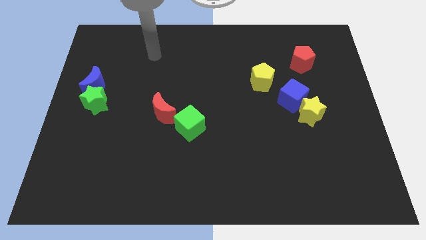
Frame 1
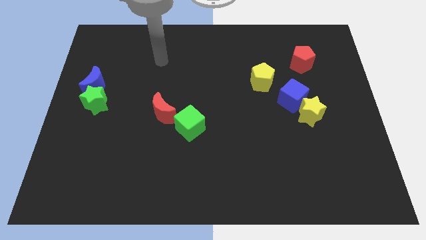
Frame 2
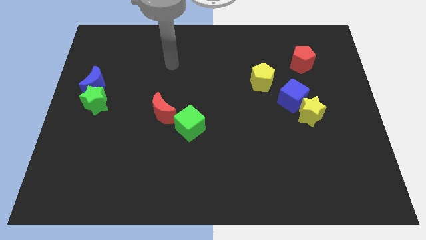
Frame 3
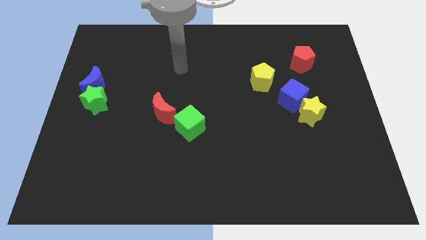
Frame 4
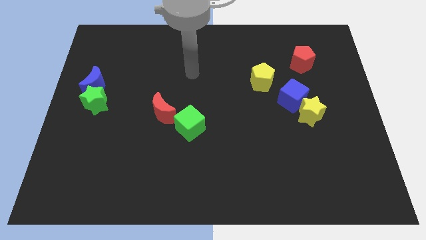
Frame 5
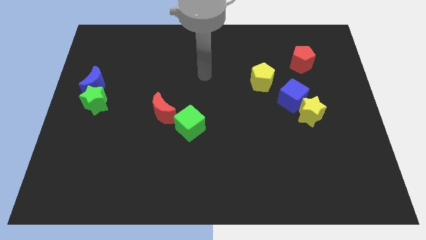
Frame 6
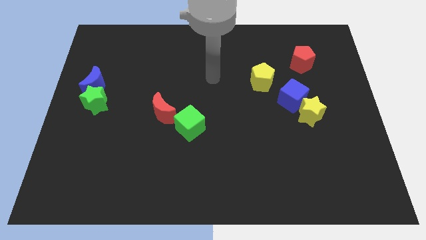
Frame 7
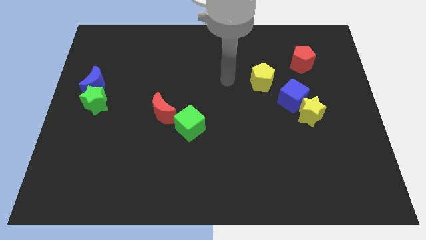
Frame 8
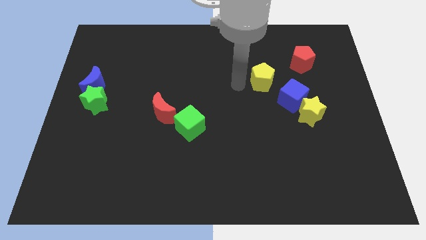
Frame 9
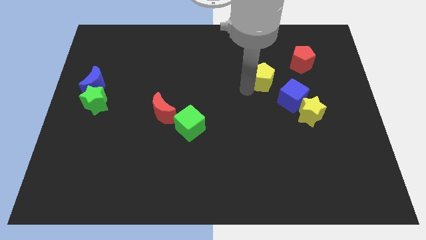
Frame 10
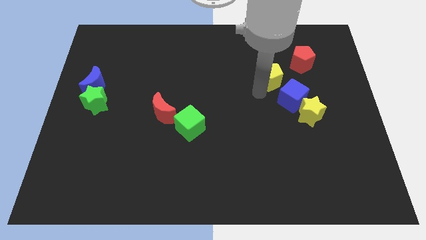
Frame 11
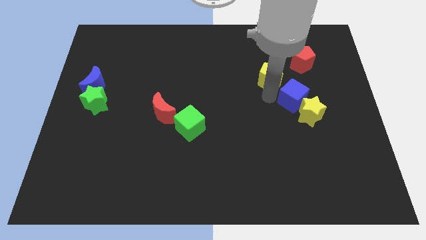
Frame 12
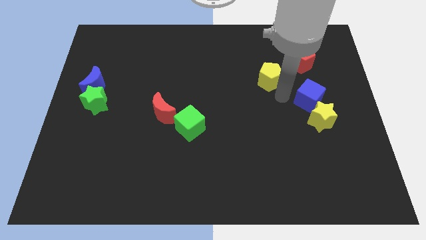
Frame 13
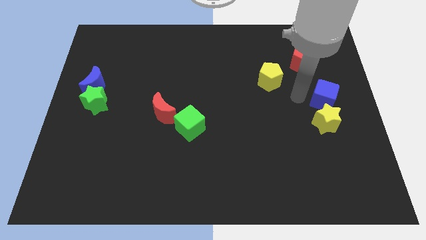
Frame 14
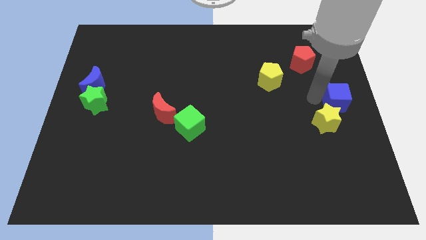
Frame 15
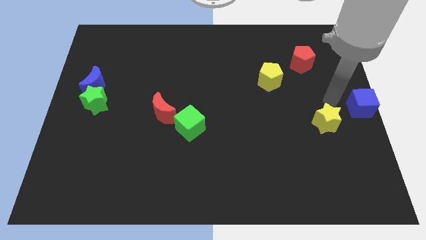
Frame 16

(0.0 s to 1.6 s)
separate the yellow star from the blue cube

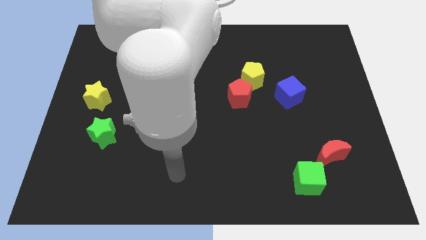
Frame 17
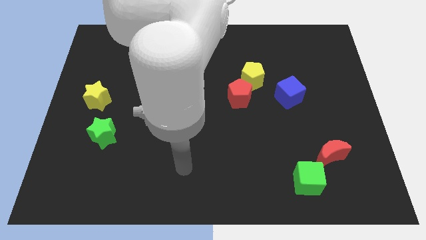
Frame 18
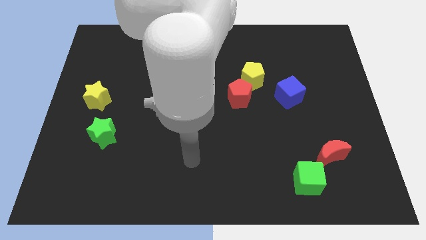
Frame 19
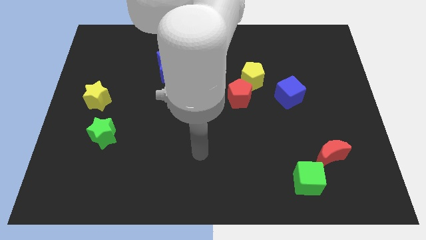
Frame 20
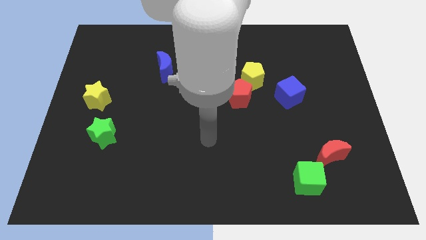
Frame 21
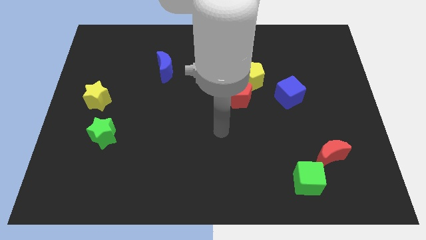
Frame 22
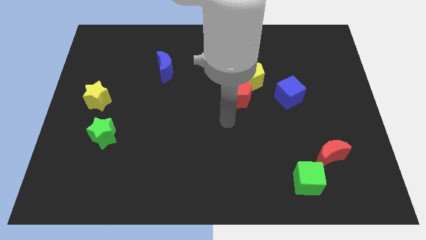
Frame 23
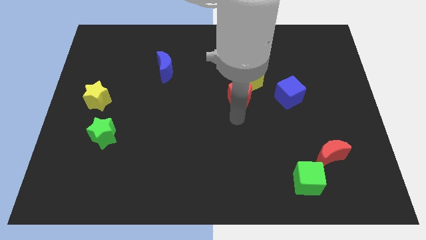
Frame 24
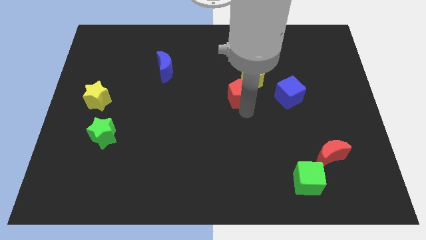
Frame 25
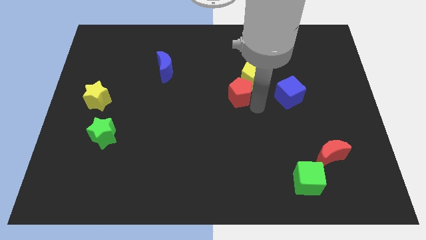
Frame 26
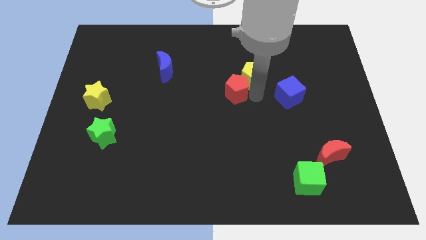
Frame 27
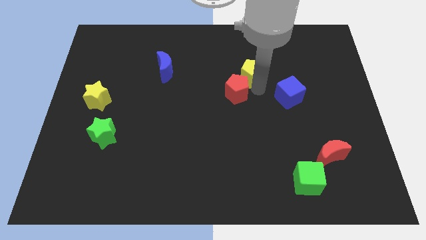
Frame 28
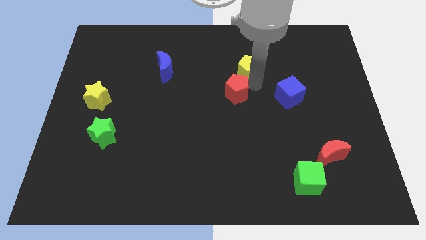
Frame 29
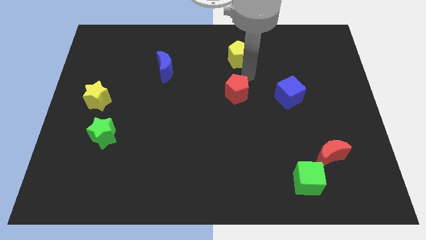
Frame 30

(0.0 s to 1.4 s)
separate the red pentagon from the yellow pentagon

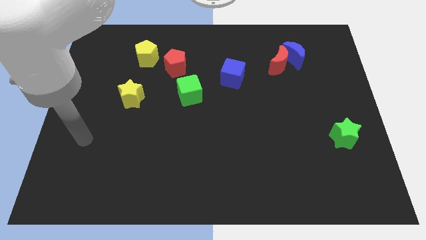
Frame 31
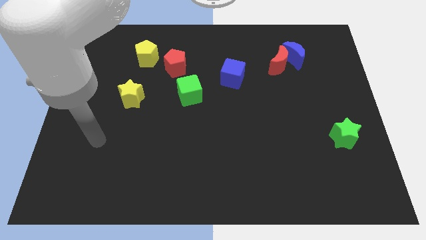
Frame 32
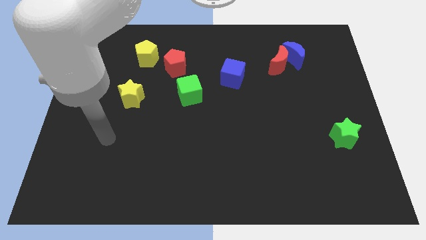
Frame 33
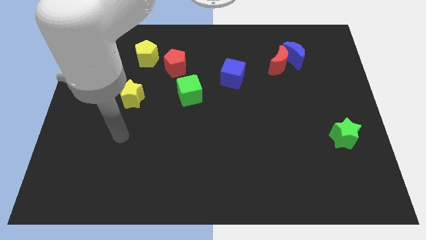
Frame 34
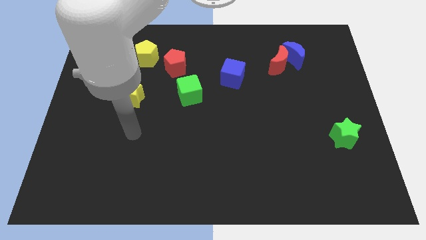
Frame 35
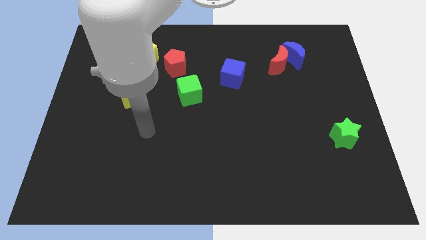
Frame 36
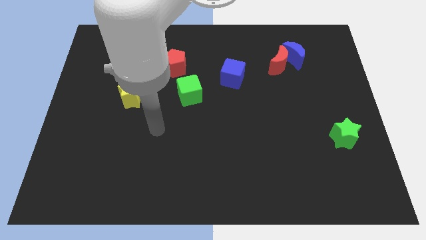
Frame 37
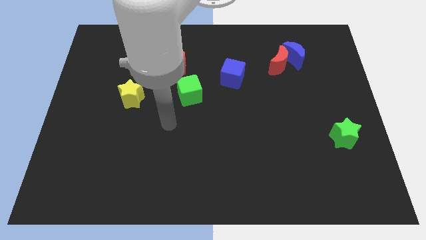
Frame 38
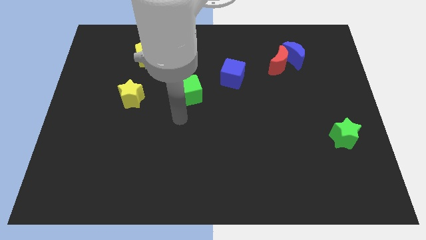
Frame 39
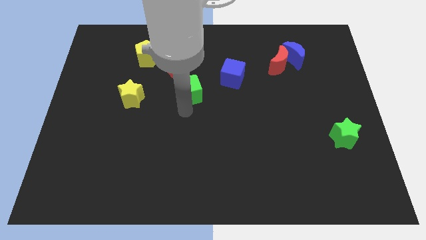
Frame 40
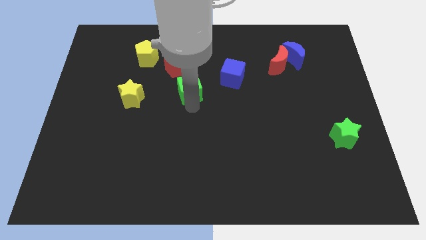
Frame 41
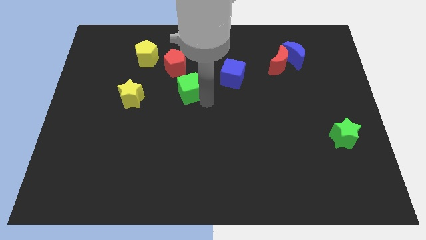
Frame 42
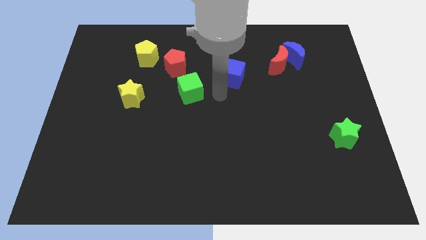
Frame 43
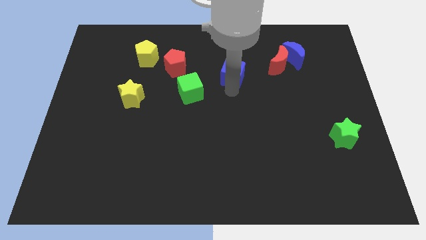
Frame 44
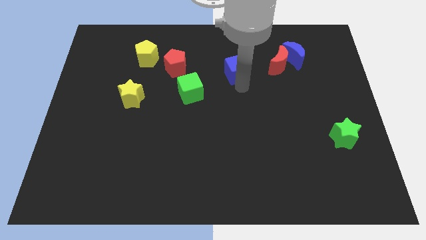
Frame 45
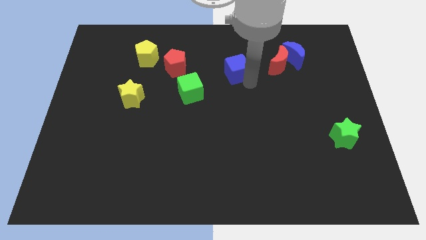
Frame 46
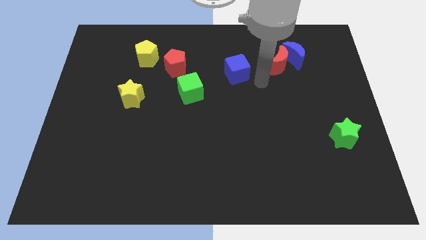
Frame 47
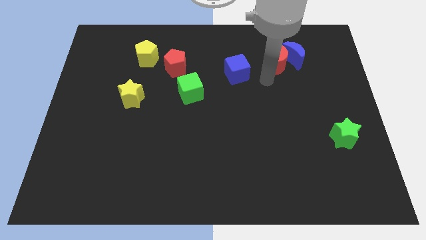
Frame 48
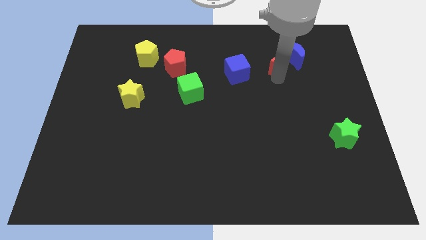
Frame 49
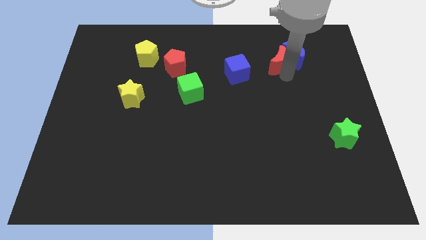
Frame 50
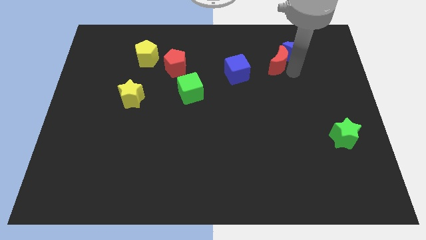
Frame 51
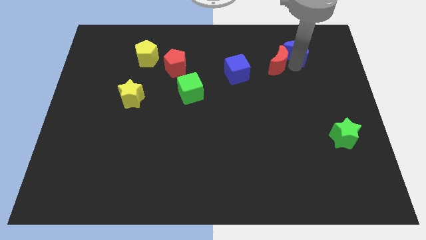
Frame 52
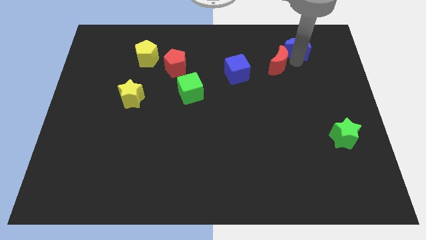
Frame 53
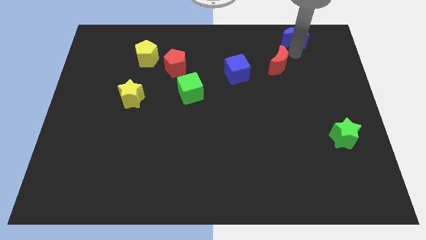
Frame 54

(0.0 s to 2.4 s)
separate the red moon from the blue moon

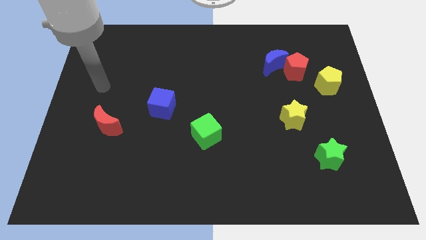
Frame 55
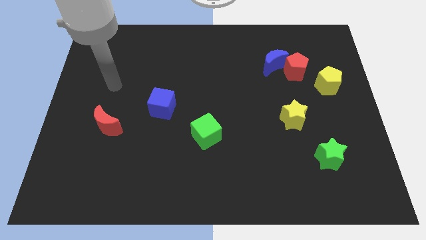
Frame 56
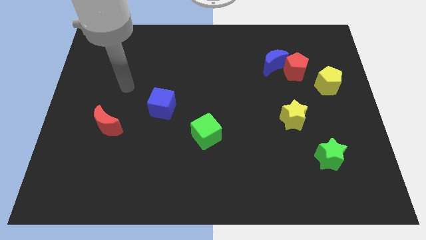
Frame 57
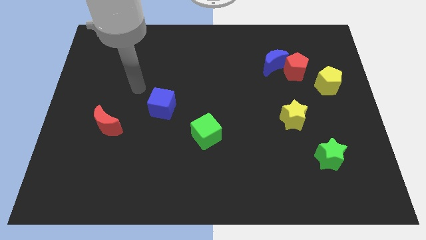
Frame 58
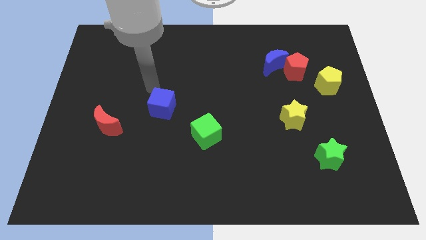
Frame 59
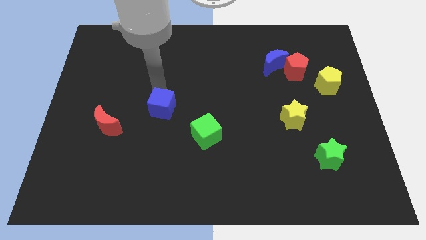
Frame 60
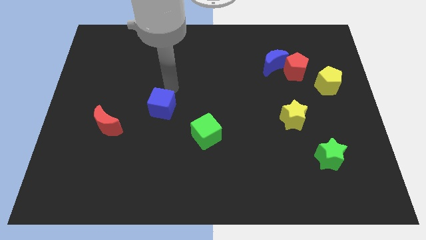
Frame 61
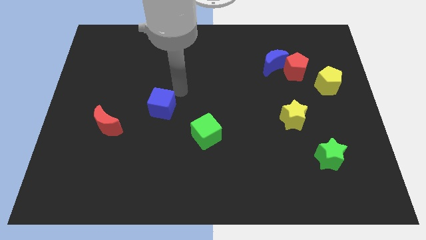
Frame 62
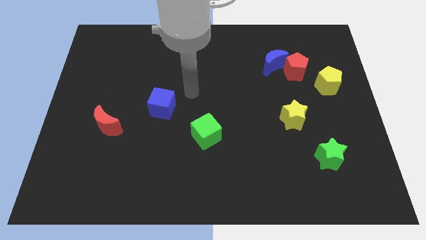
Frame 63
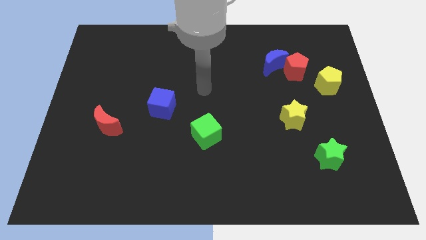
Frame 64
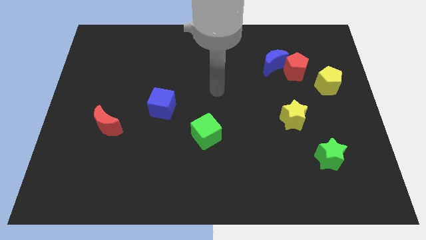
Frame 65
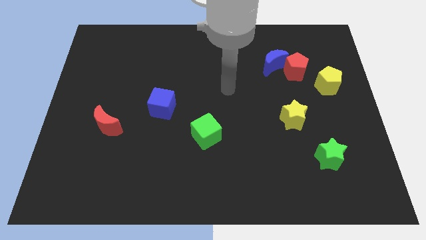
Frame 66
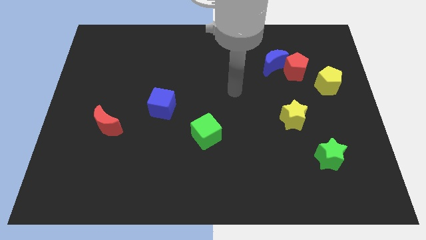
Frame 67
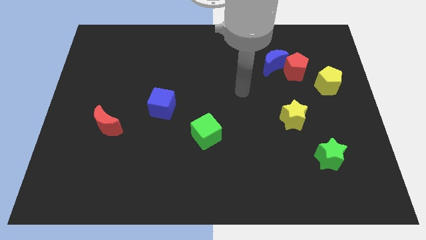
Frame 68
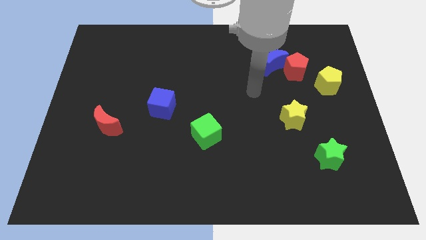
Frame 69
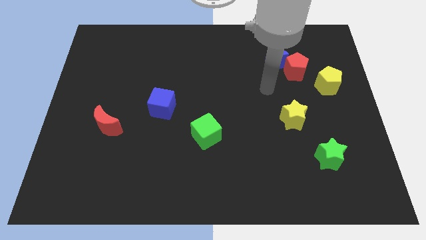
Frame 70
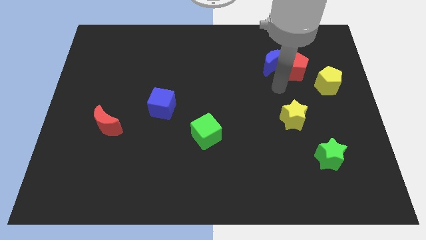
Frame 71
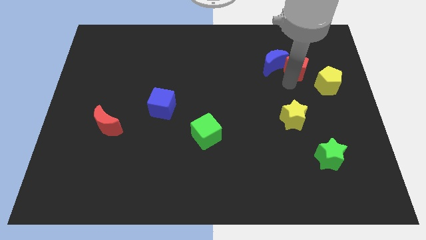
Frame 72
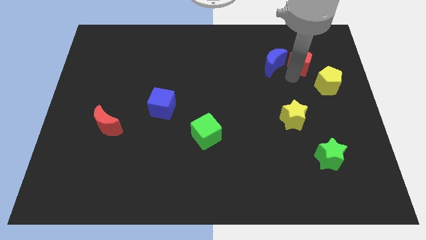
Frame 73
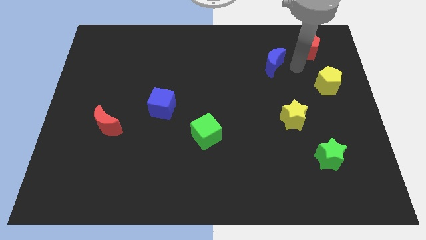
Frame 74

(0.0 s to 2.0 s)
move the blue moon away from the red pentagon

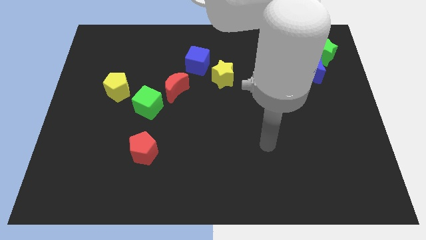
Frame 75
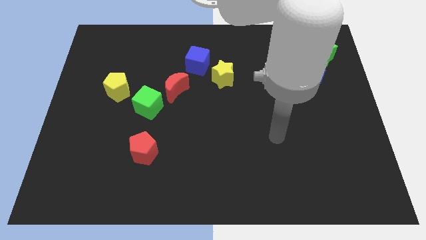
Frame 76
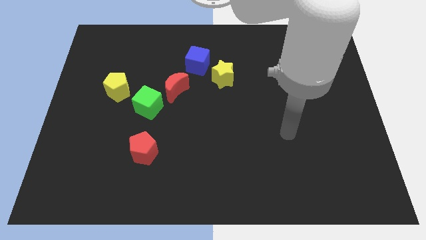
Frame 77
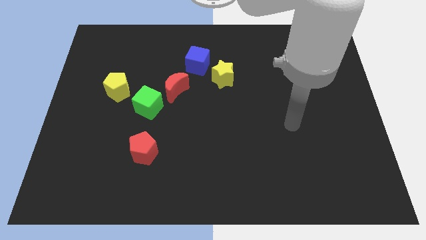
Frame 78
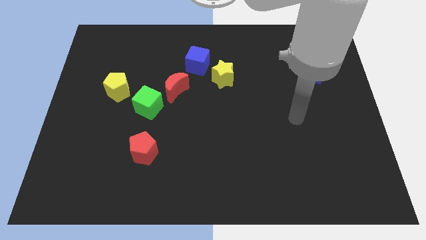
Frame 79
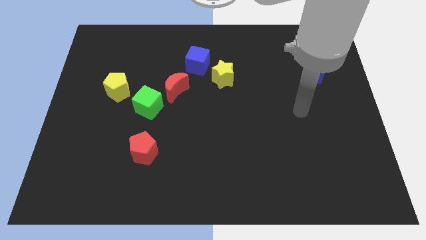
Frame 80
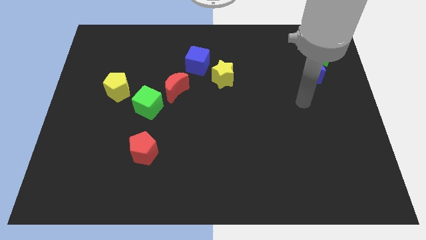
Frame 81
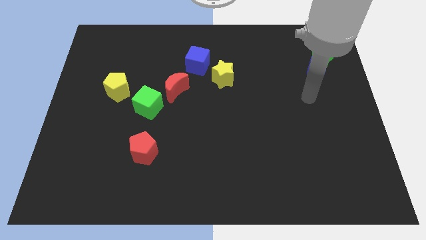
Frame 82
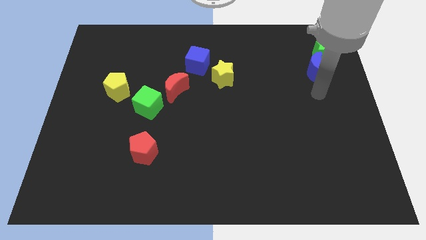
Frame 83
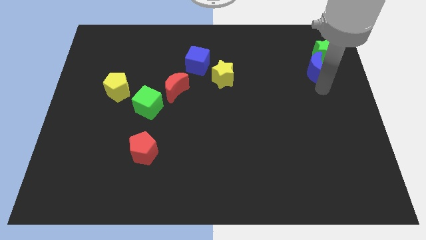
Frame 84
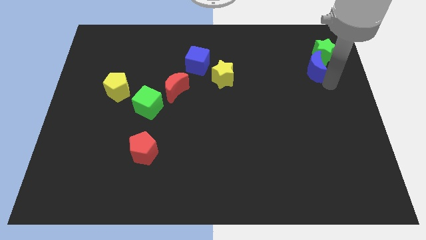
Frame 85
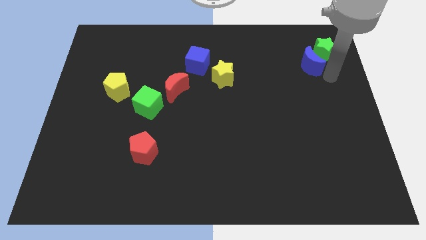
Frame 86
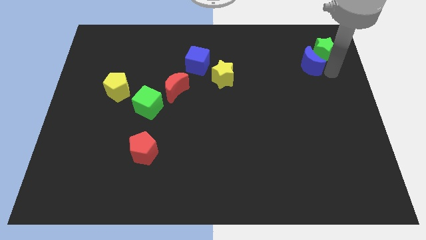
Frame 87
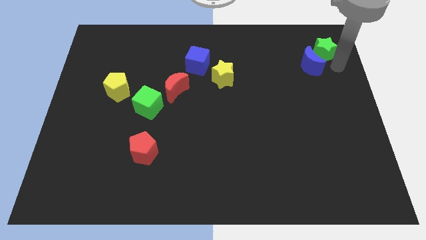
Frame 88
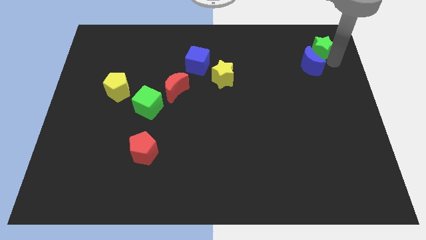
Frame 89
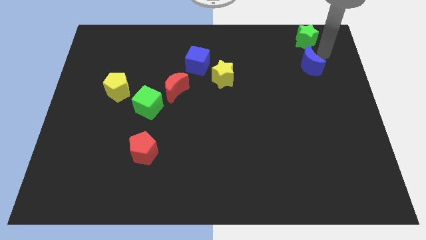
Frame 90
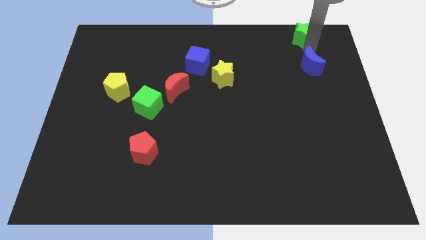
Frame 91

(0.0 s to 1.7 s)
pull the blue moon apart from the green star

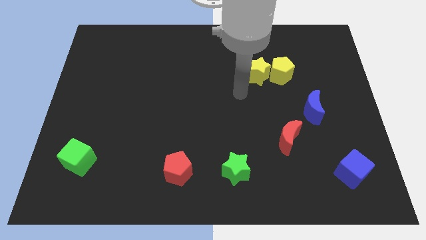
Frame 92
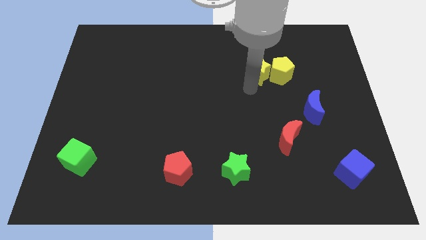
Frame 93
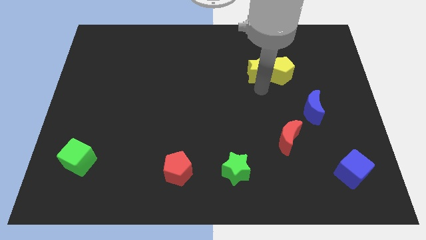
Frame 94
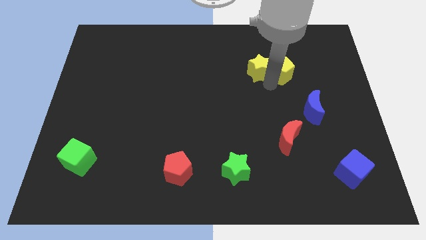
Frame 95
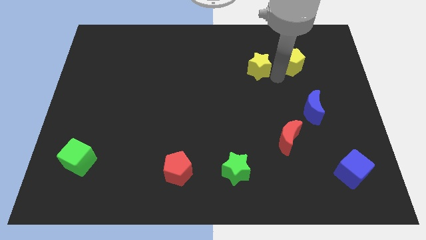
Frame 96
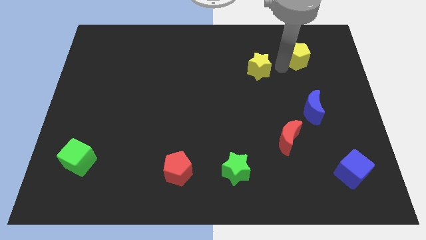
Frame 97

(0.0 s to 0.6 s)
move the yellow star away from the yellow pentagon
